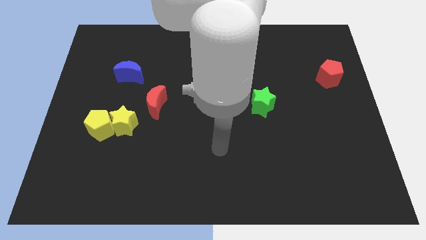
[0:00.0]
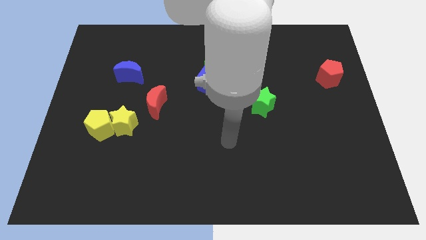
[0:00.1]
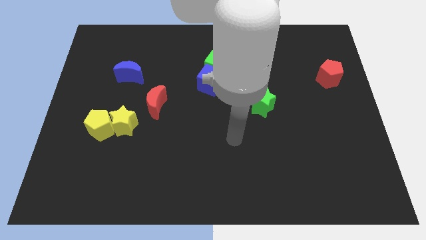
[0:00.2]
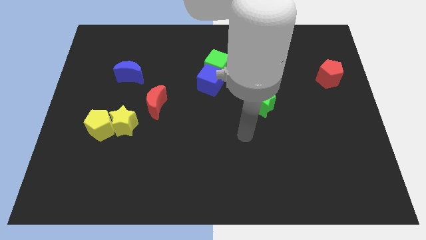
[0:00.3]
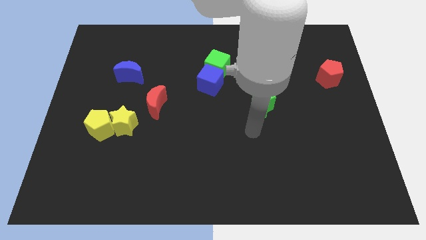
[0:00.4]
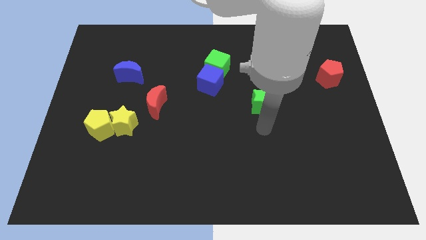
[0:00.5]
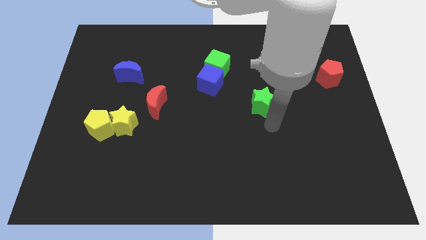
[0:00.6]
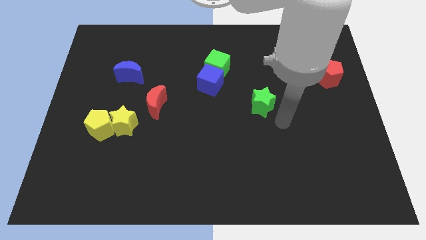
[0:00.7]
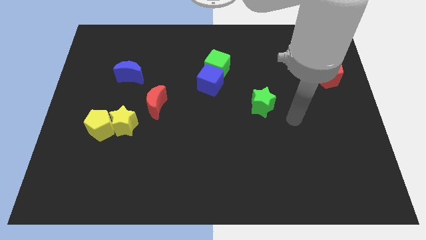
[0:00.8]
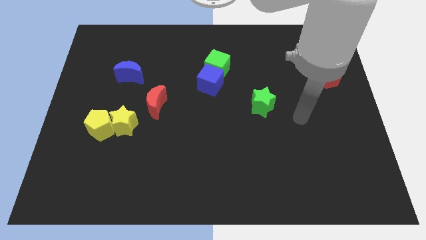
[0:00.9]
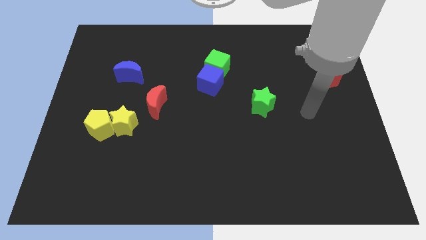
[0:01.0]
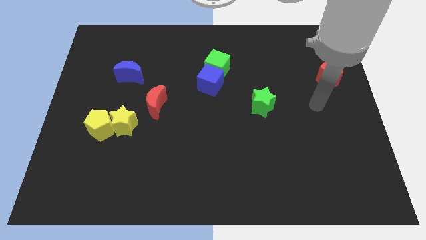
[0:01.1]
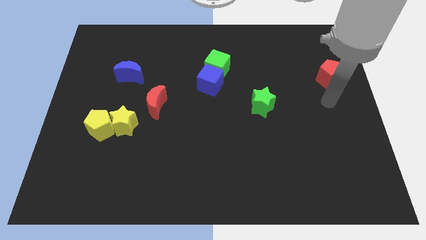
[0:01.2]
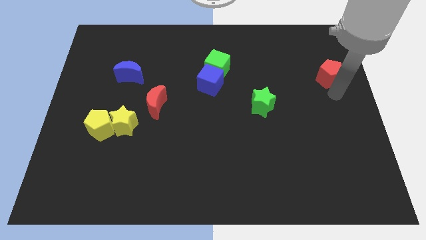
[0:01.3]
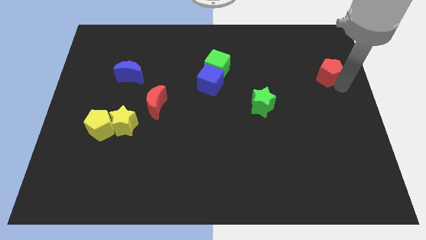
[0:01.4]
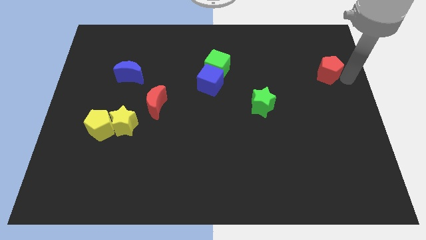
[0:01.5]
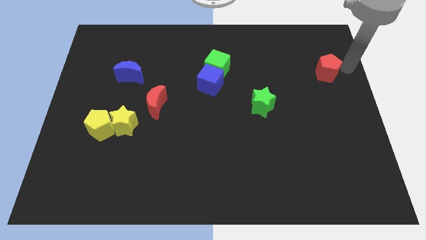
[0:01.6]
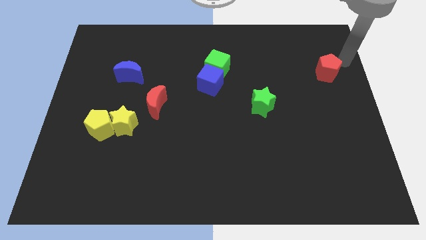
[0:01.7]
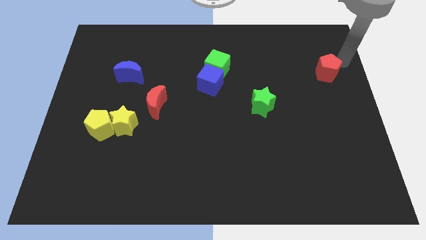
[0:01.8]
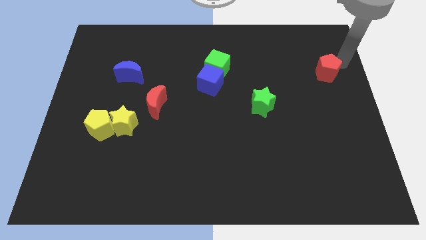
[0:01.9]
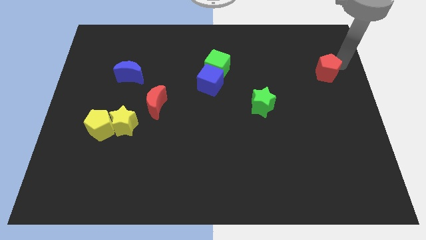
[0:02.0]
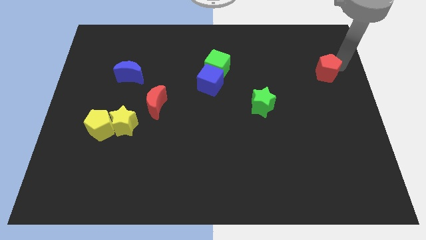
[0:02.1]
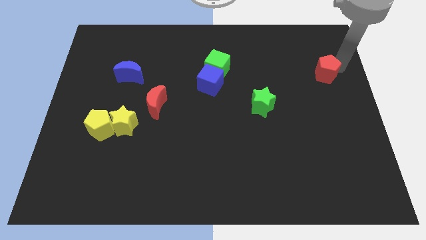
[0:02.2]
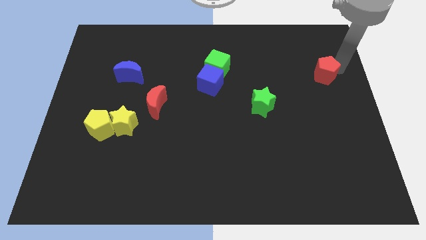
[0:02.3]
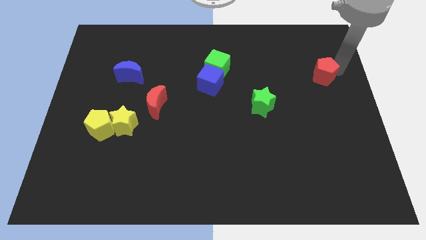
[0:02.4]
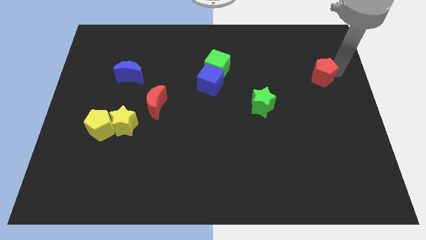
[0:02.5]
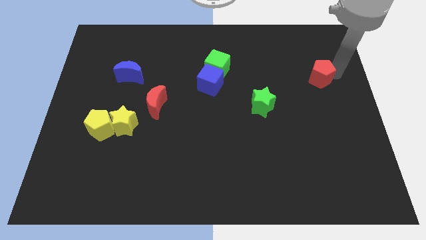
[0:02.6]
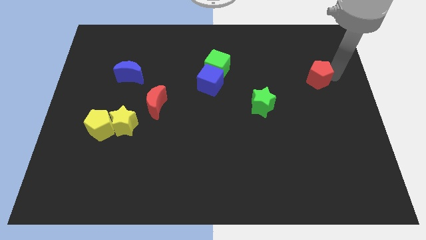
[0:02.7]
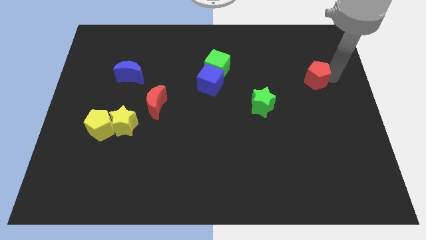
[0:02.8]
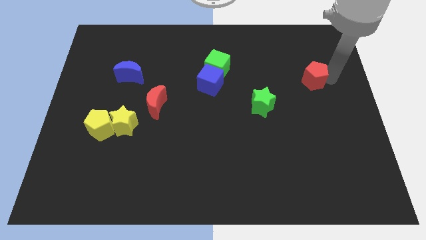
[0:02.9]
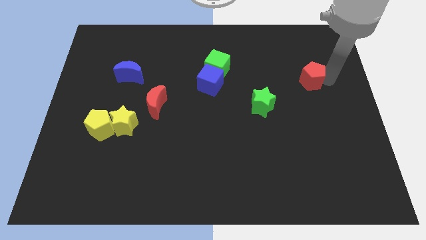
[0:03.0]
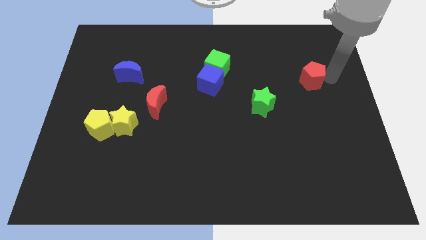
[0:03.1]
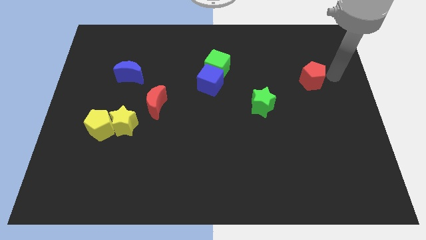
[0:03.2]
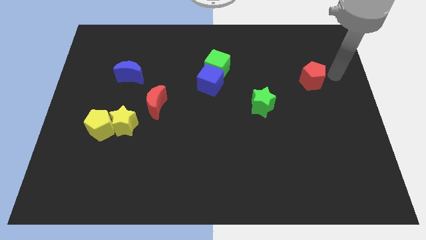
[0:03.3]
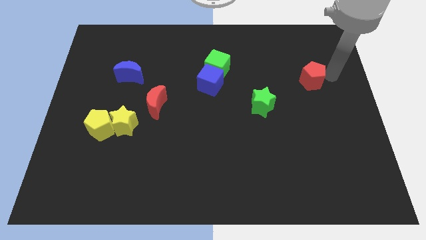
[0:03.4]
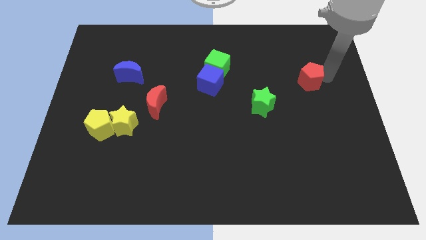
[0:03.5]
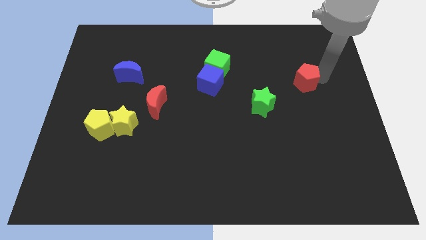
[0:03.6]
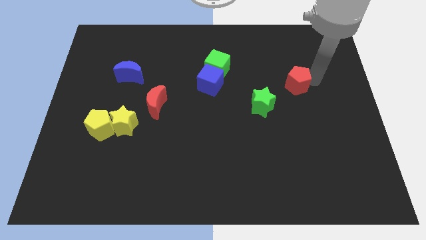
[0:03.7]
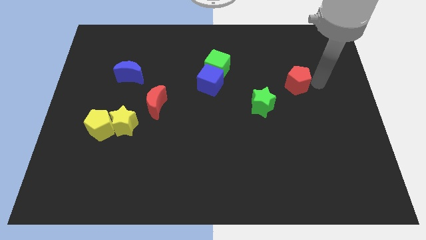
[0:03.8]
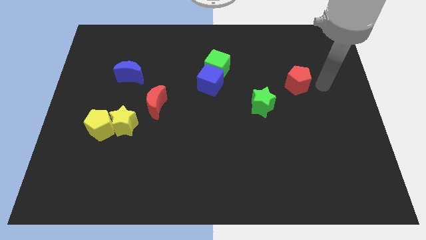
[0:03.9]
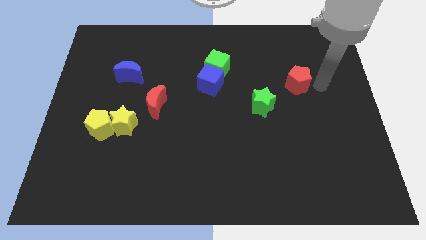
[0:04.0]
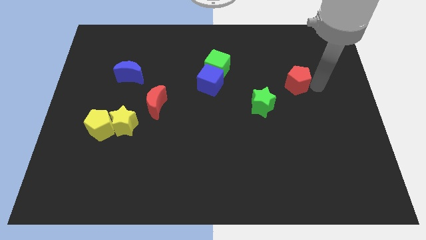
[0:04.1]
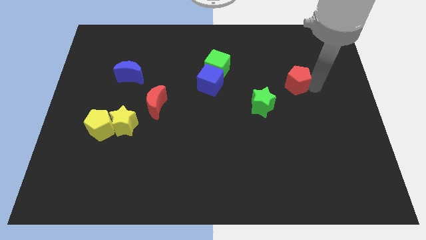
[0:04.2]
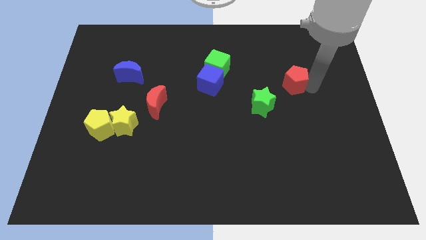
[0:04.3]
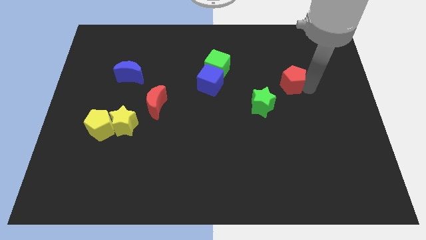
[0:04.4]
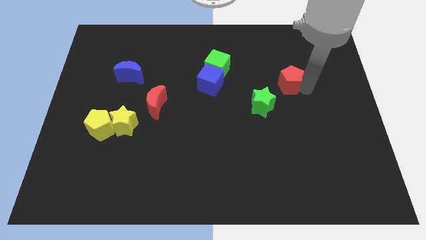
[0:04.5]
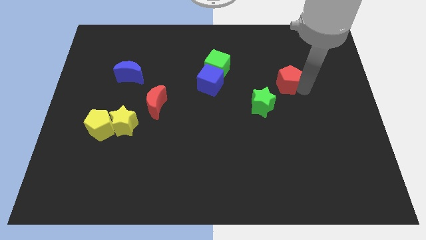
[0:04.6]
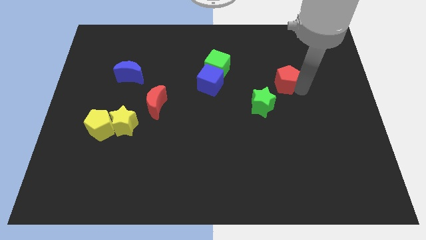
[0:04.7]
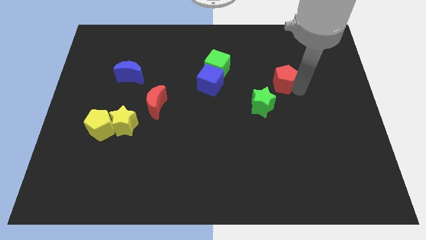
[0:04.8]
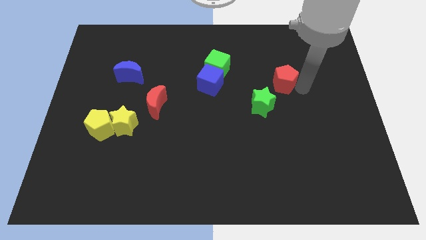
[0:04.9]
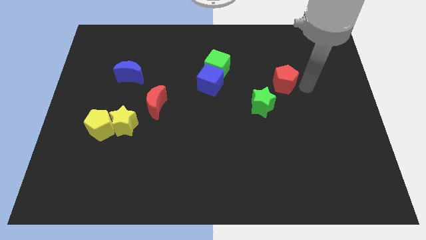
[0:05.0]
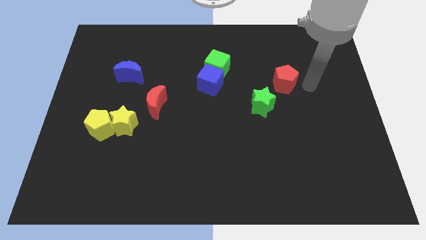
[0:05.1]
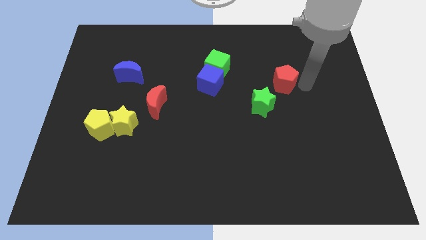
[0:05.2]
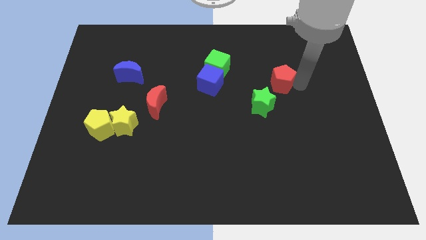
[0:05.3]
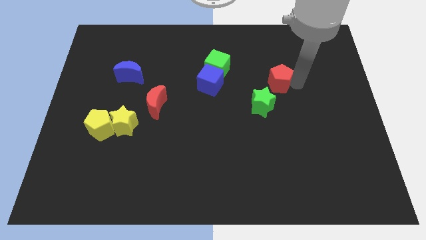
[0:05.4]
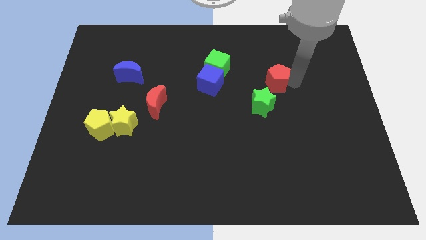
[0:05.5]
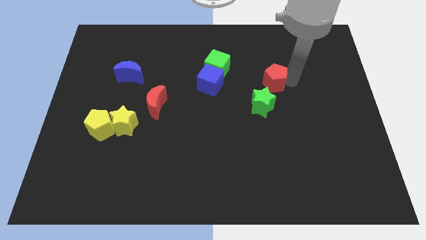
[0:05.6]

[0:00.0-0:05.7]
slide the red pentagon to the right side of the blue cube

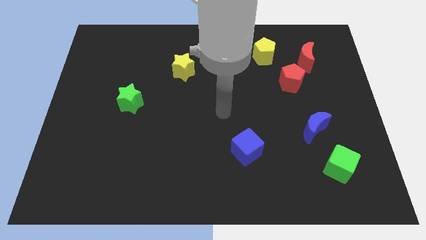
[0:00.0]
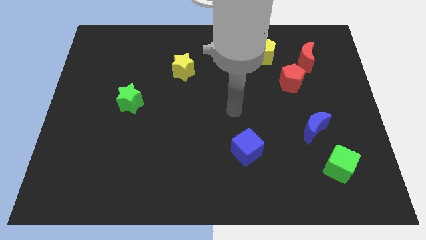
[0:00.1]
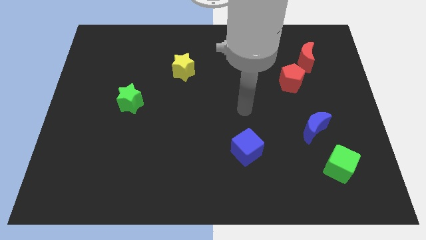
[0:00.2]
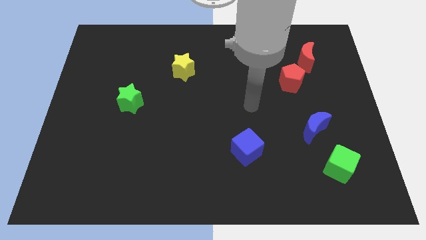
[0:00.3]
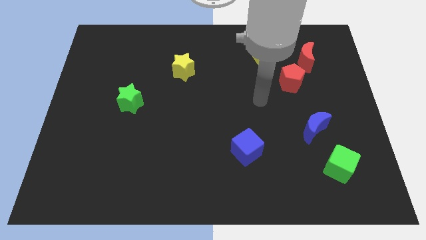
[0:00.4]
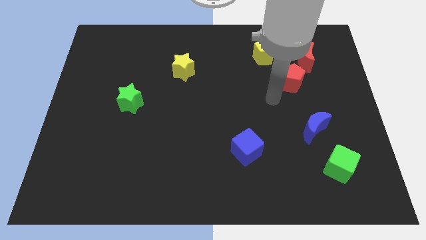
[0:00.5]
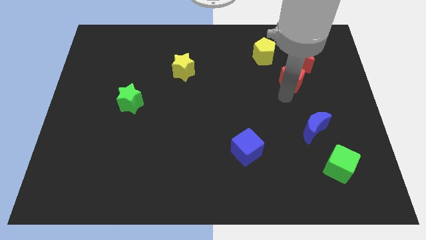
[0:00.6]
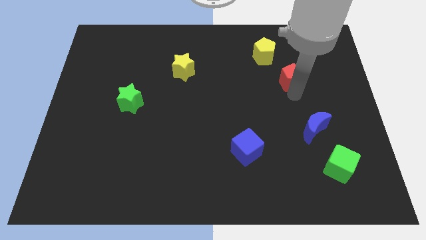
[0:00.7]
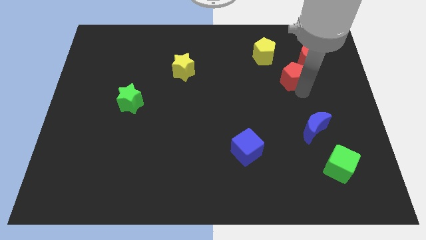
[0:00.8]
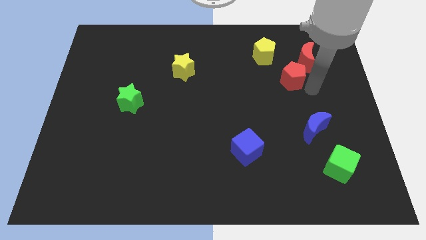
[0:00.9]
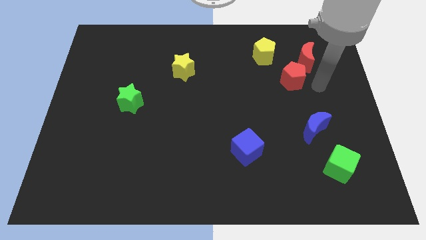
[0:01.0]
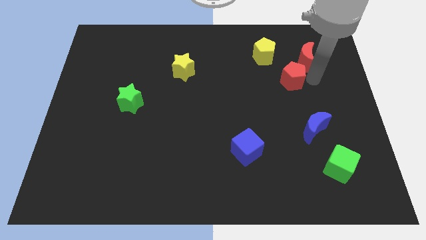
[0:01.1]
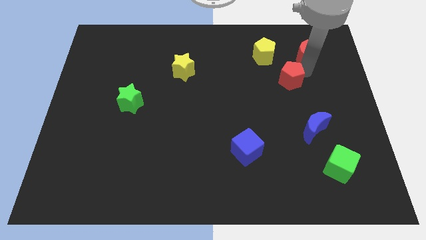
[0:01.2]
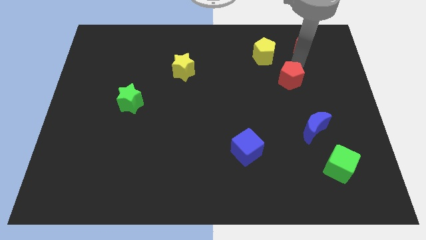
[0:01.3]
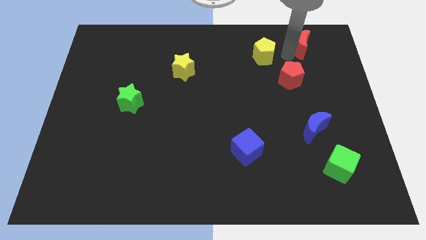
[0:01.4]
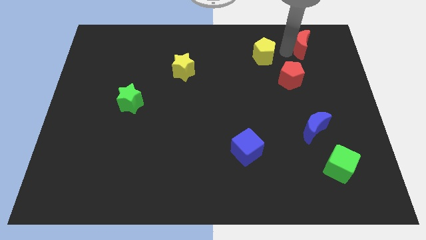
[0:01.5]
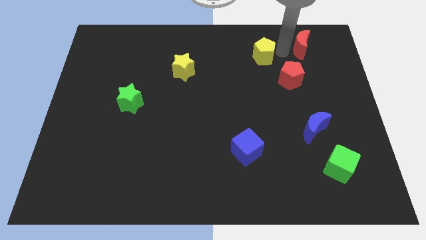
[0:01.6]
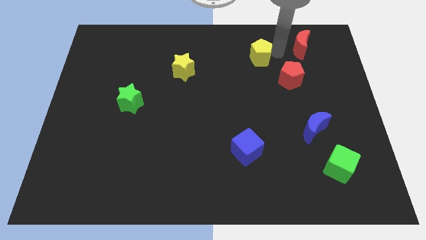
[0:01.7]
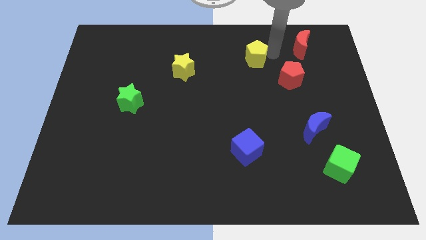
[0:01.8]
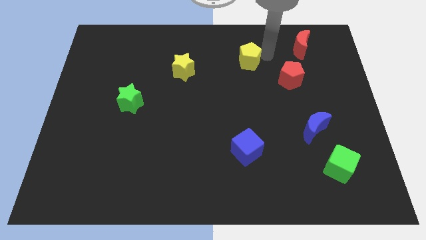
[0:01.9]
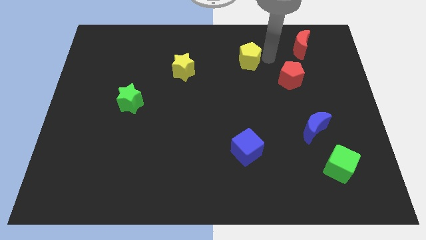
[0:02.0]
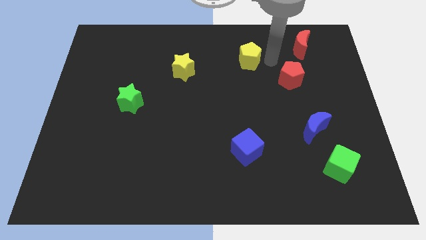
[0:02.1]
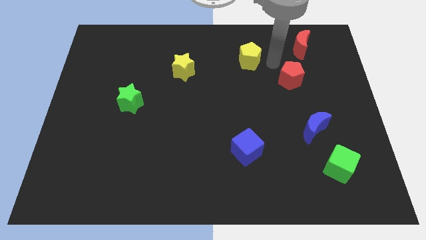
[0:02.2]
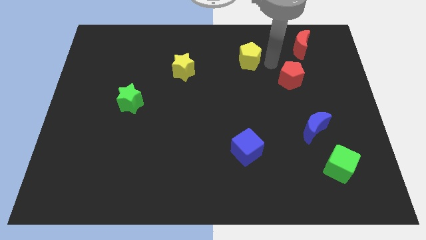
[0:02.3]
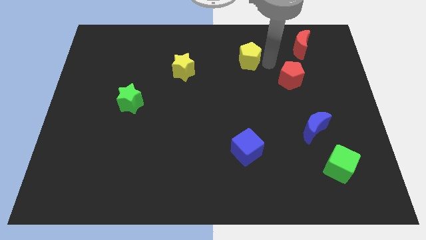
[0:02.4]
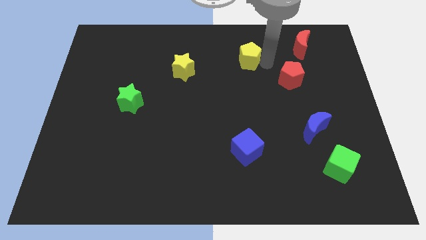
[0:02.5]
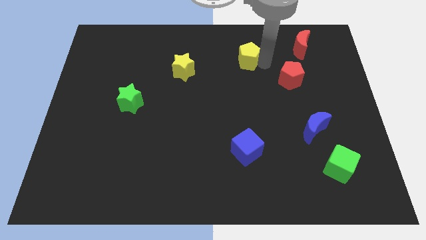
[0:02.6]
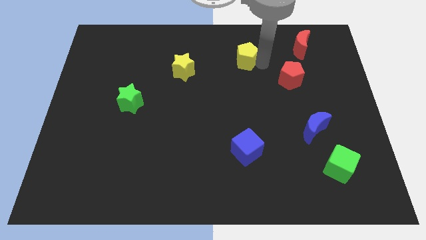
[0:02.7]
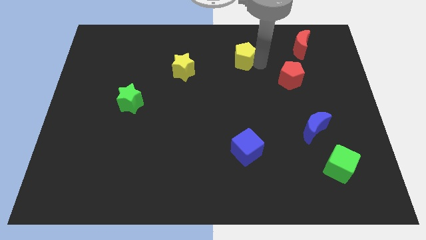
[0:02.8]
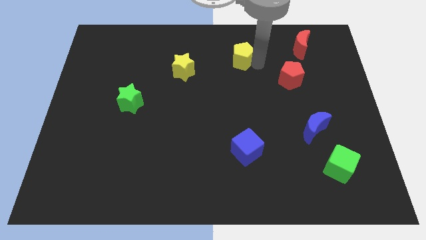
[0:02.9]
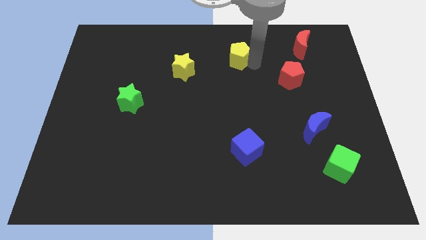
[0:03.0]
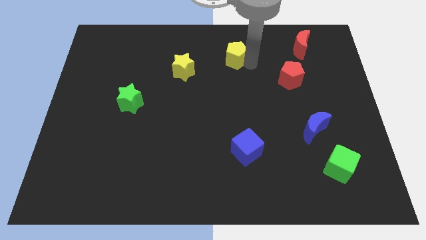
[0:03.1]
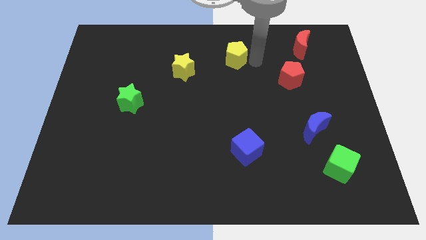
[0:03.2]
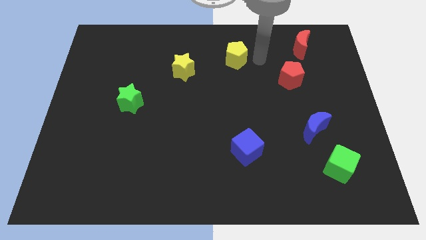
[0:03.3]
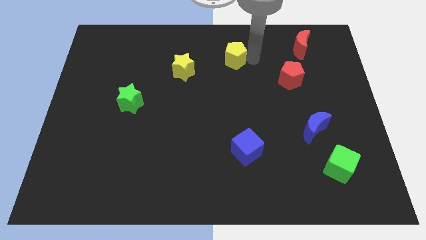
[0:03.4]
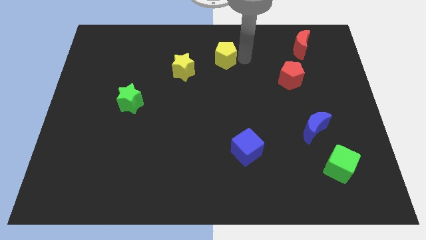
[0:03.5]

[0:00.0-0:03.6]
push the yellow pentagon to the top right side of the yellow star
